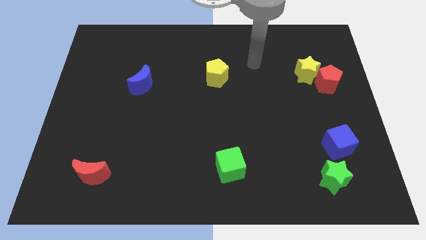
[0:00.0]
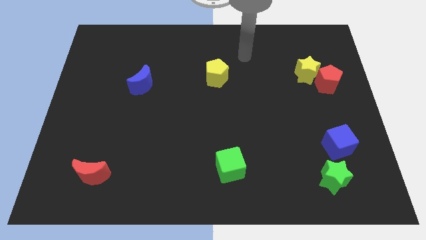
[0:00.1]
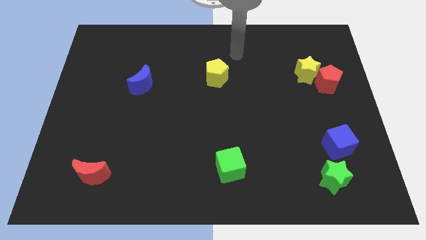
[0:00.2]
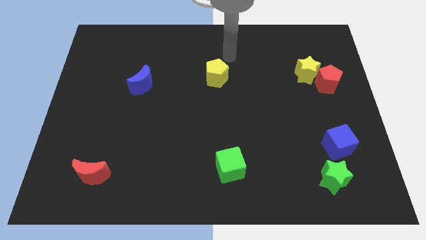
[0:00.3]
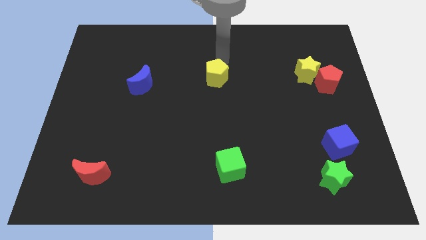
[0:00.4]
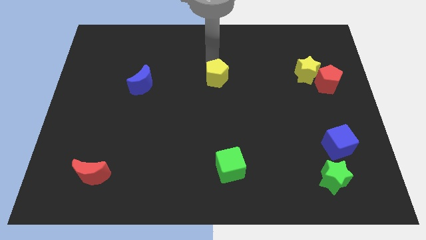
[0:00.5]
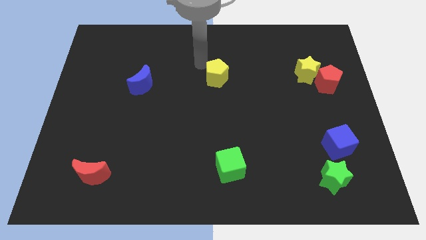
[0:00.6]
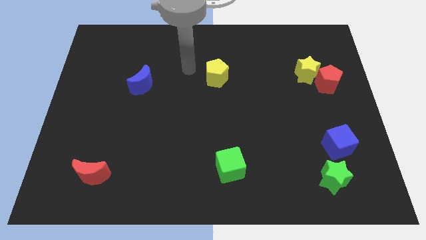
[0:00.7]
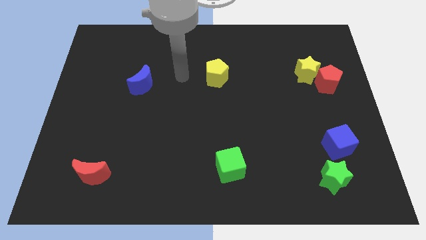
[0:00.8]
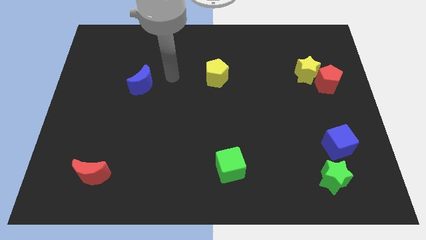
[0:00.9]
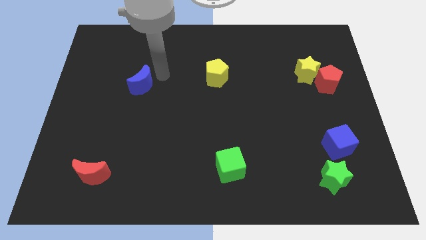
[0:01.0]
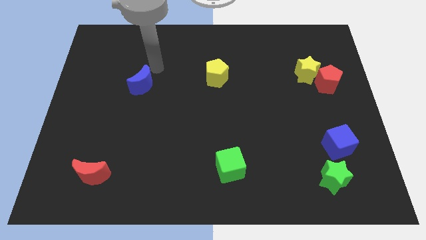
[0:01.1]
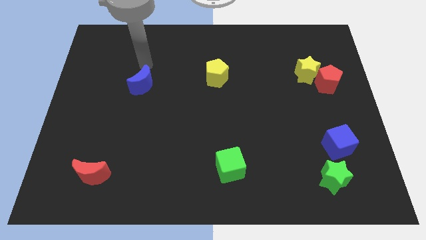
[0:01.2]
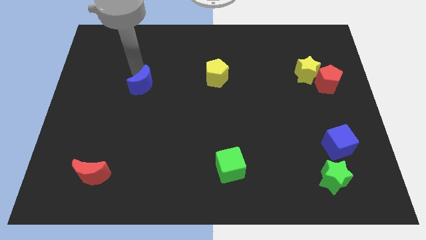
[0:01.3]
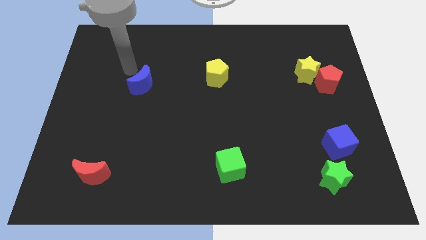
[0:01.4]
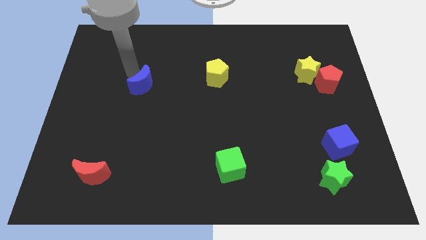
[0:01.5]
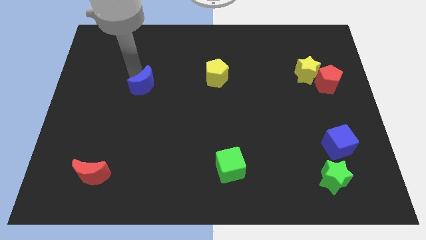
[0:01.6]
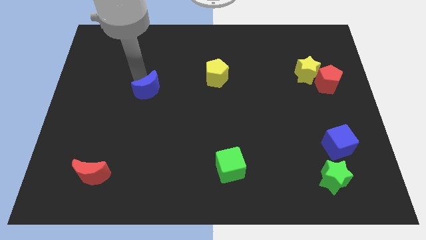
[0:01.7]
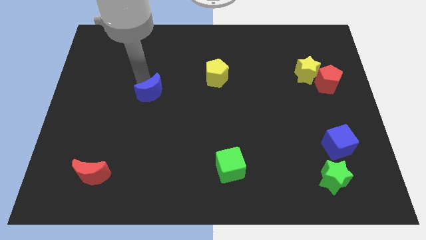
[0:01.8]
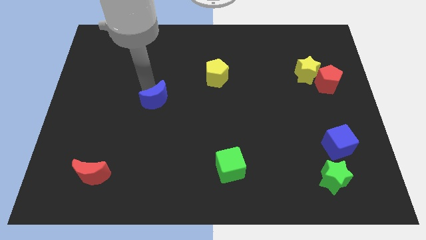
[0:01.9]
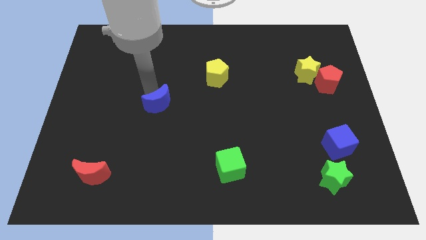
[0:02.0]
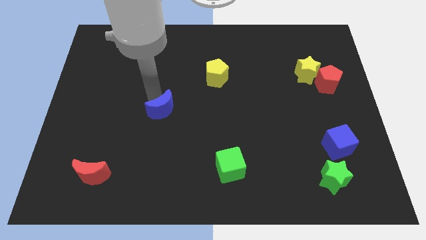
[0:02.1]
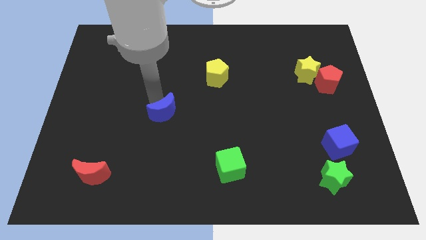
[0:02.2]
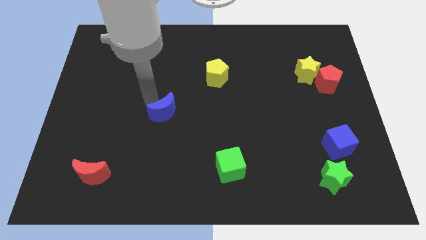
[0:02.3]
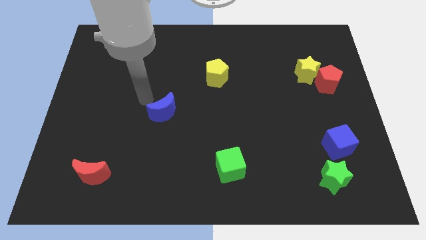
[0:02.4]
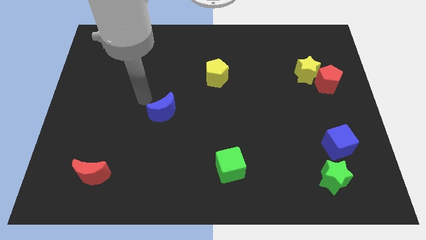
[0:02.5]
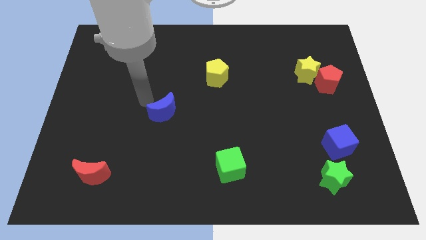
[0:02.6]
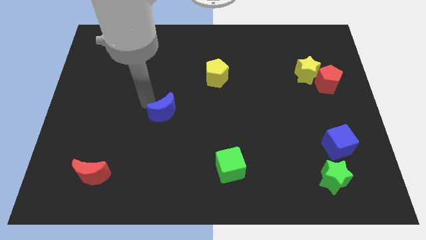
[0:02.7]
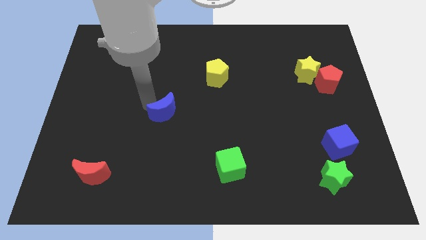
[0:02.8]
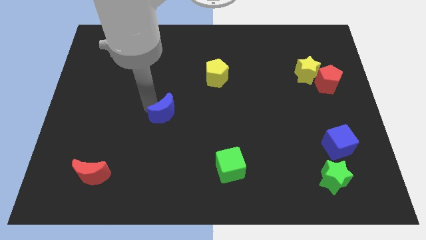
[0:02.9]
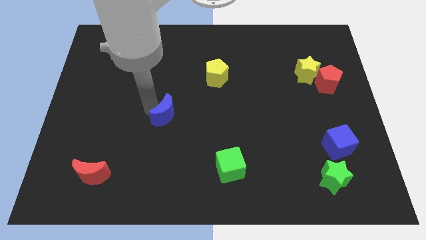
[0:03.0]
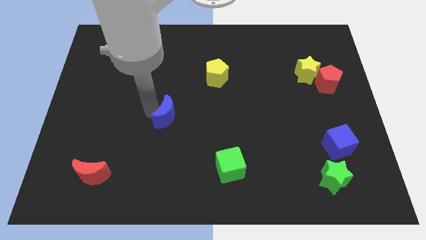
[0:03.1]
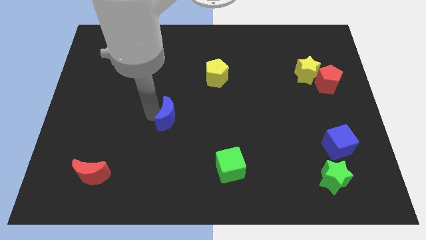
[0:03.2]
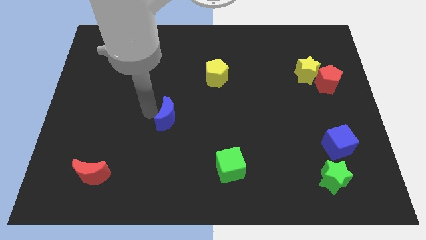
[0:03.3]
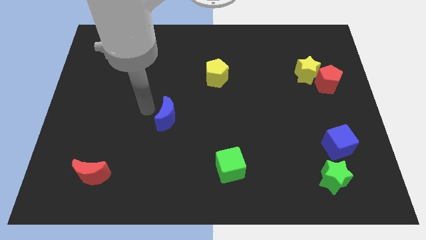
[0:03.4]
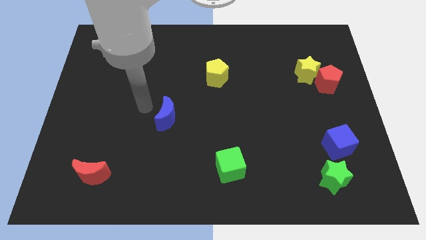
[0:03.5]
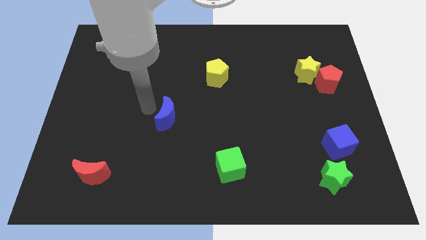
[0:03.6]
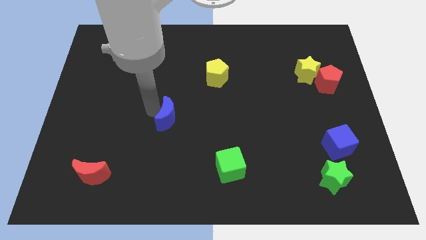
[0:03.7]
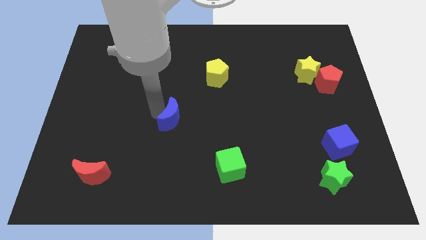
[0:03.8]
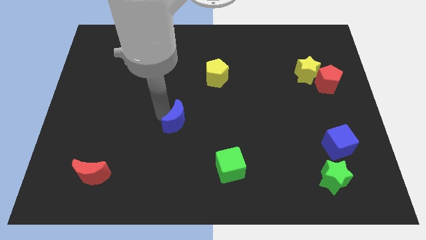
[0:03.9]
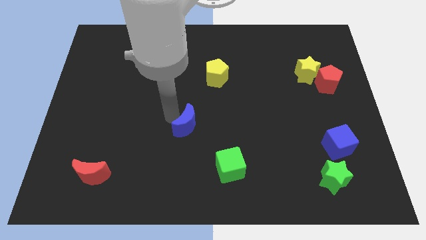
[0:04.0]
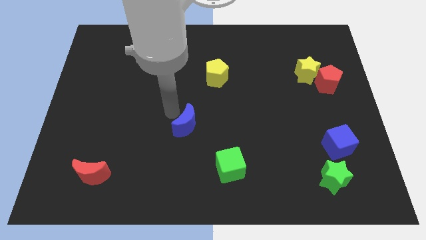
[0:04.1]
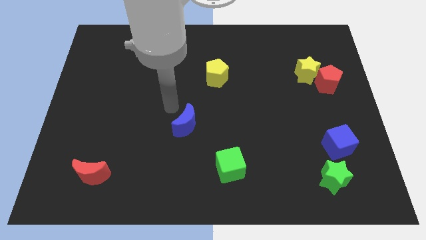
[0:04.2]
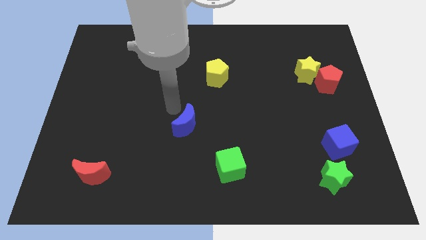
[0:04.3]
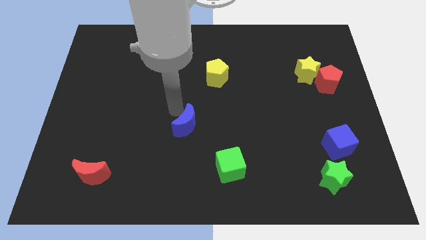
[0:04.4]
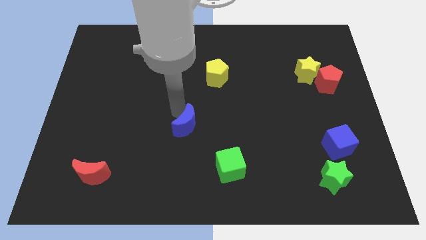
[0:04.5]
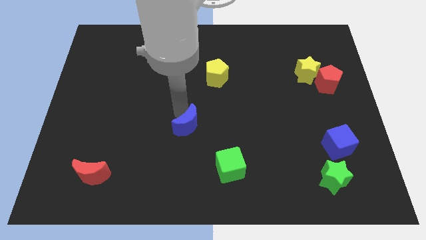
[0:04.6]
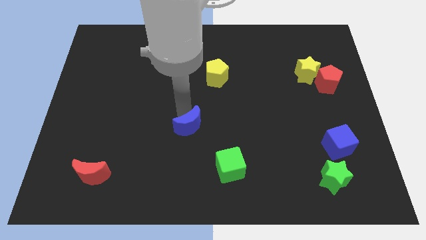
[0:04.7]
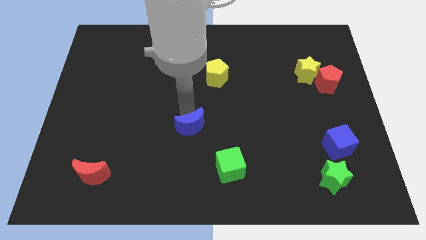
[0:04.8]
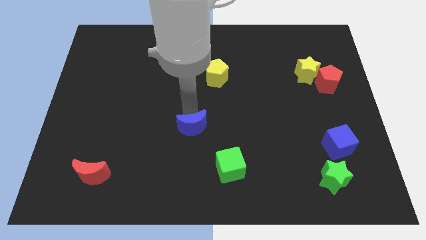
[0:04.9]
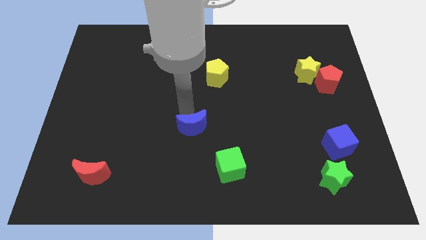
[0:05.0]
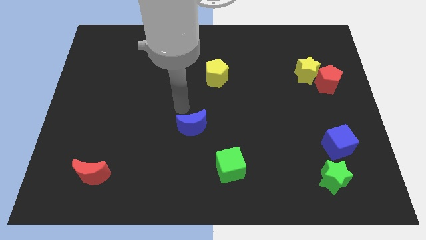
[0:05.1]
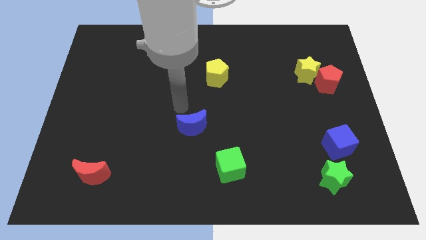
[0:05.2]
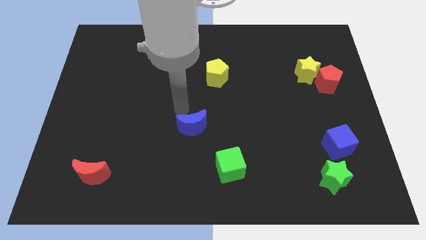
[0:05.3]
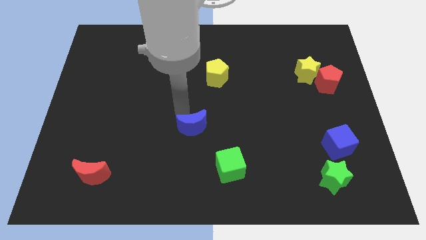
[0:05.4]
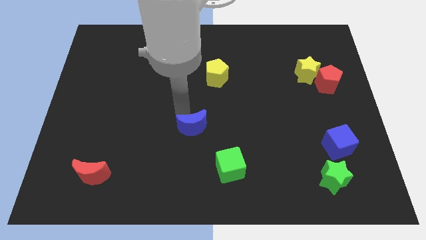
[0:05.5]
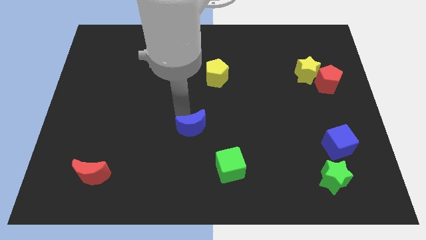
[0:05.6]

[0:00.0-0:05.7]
move the blue moon to the top left side of the green cube

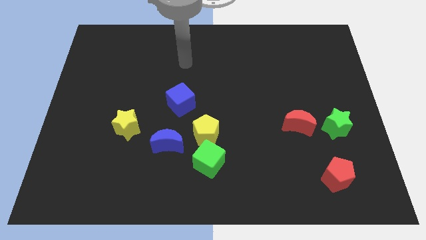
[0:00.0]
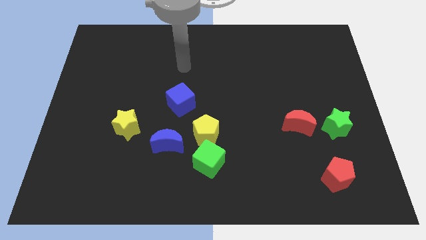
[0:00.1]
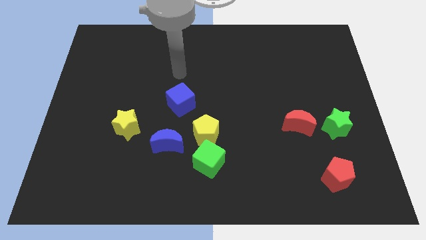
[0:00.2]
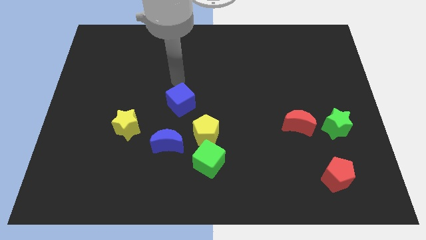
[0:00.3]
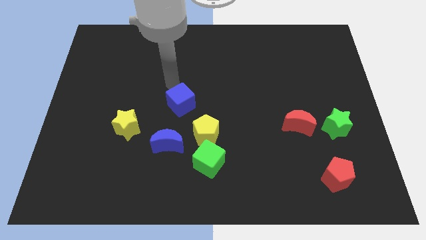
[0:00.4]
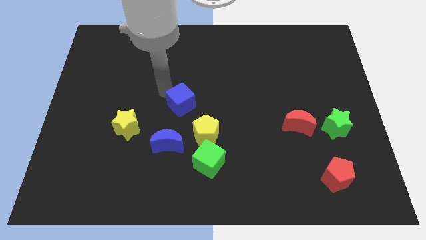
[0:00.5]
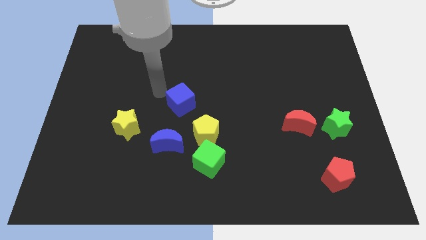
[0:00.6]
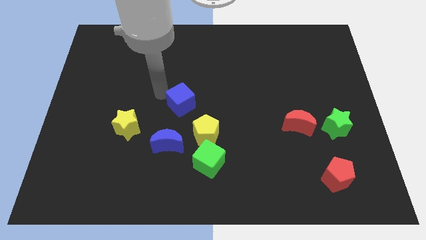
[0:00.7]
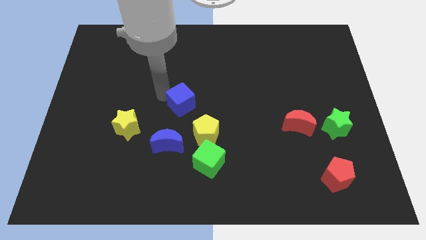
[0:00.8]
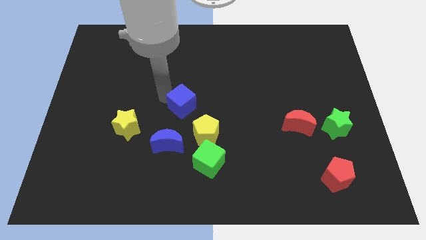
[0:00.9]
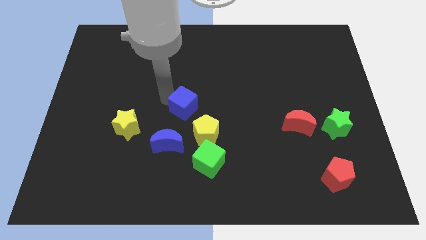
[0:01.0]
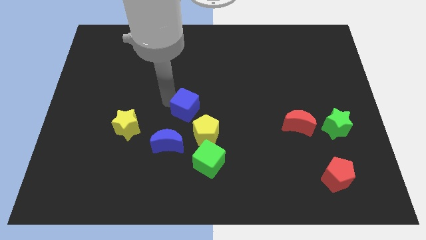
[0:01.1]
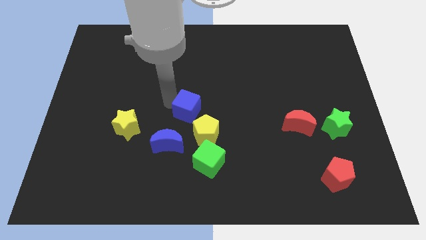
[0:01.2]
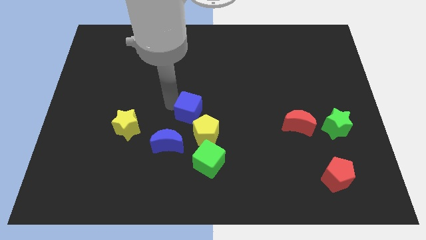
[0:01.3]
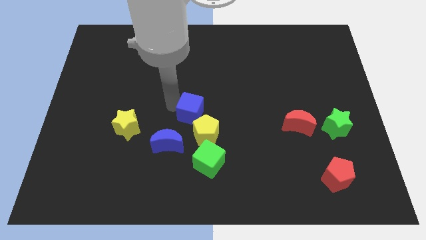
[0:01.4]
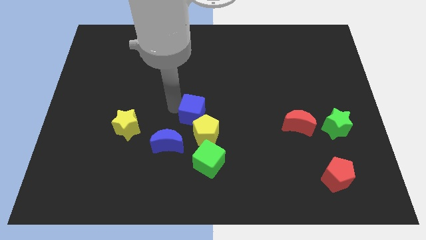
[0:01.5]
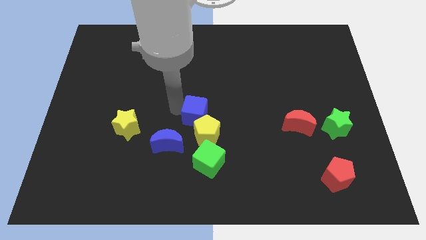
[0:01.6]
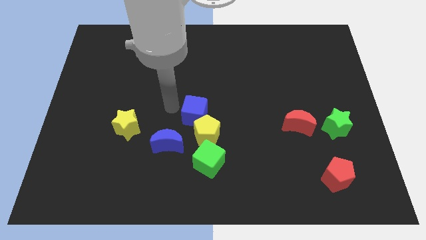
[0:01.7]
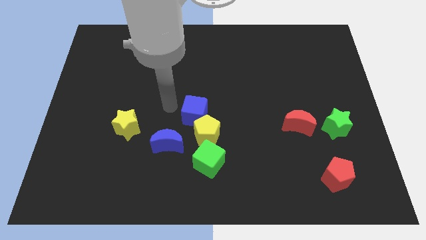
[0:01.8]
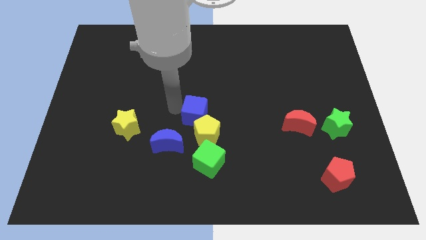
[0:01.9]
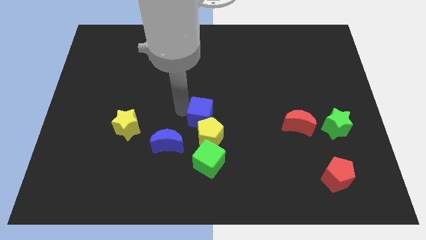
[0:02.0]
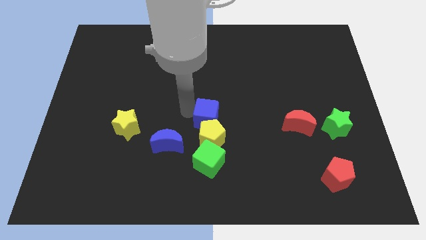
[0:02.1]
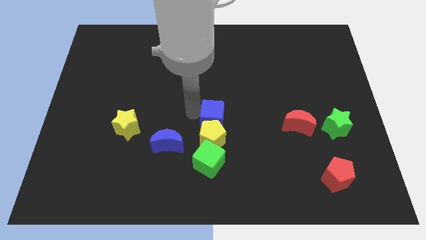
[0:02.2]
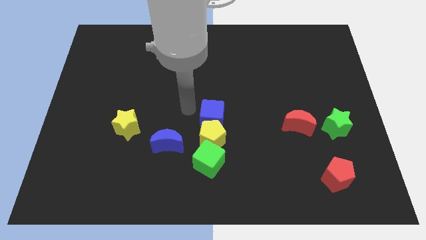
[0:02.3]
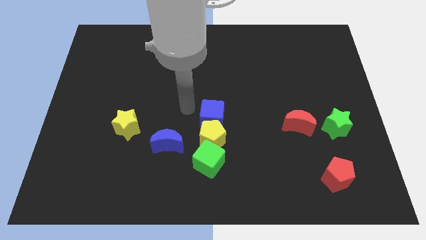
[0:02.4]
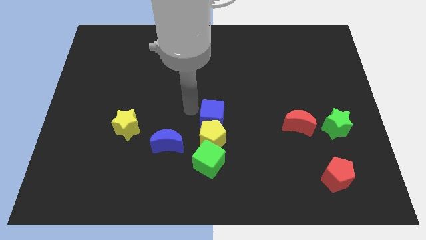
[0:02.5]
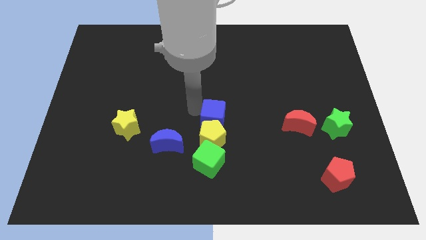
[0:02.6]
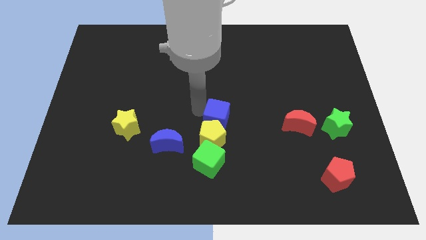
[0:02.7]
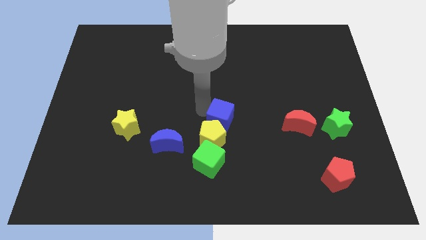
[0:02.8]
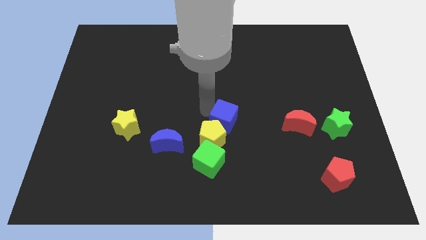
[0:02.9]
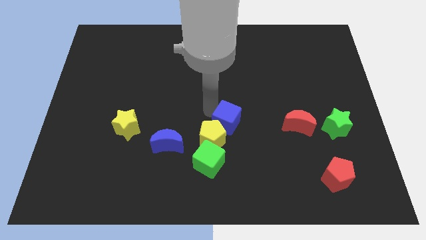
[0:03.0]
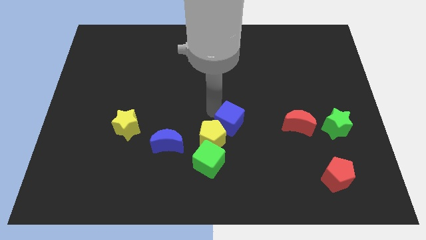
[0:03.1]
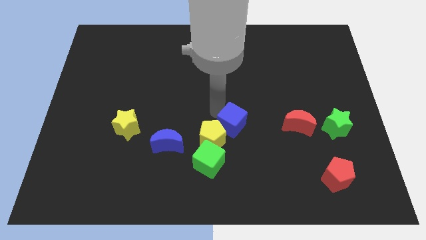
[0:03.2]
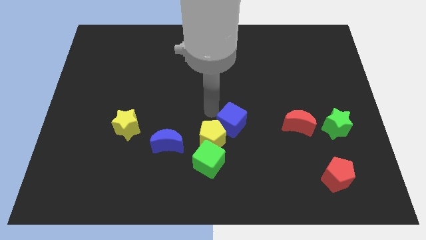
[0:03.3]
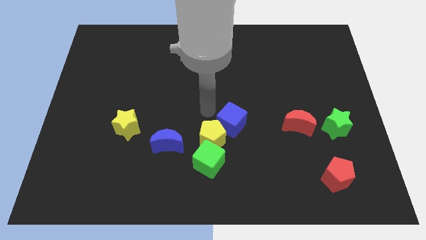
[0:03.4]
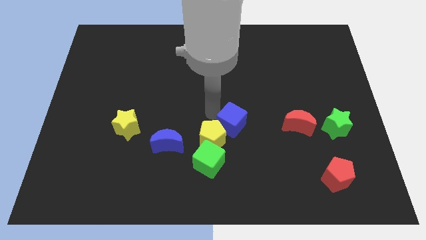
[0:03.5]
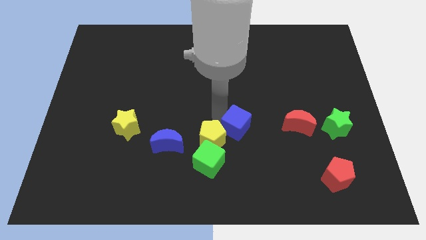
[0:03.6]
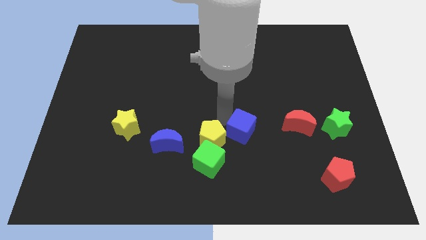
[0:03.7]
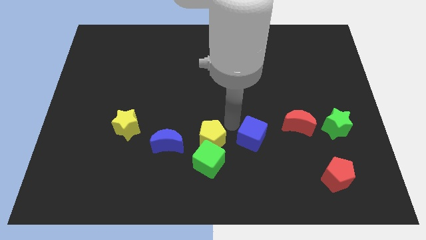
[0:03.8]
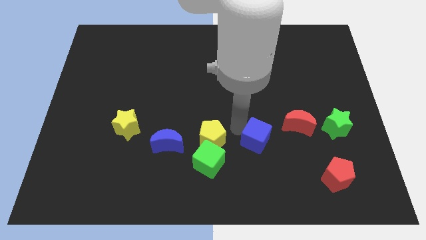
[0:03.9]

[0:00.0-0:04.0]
slide the blue cube to the bottom left of the red moon
